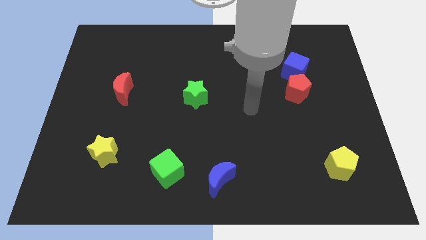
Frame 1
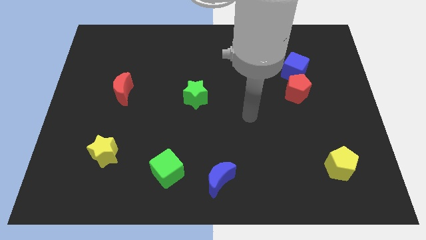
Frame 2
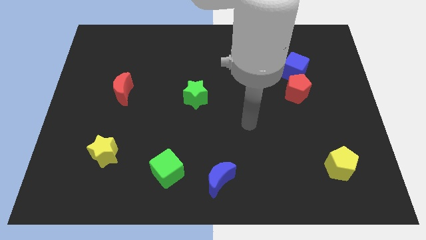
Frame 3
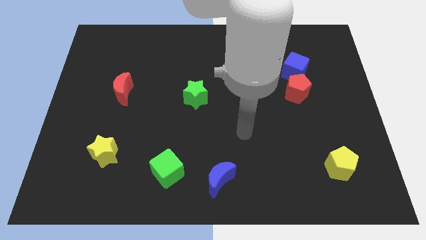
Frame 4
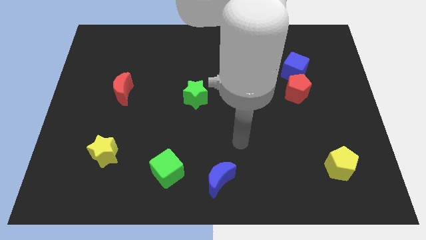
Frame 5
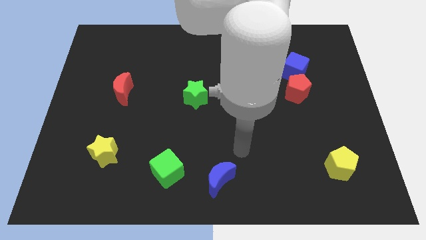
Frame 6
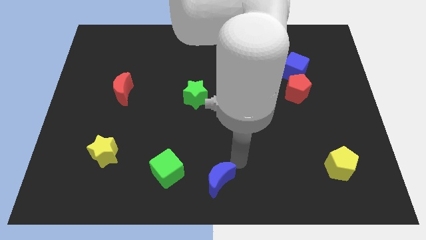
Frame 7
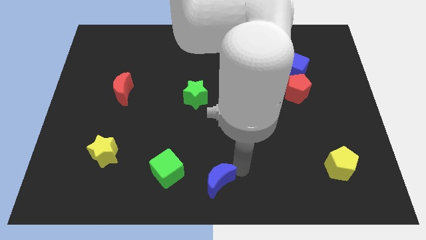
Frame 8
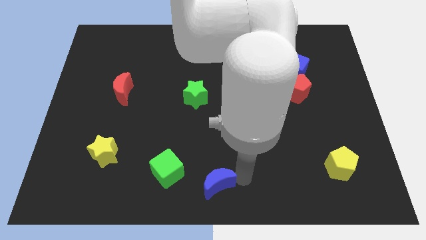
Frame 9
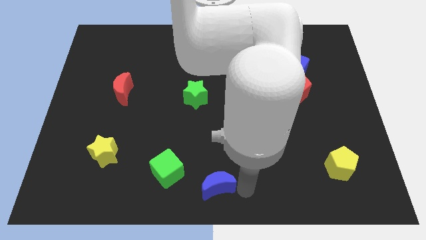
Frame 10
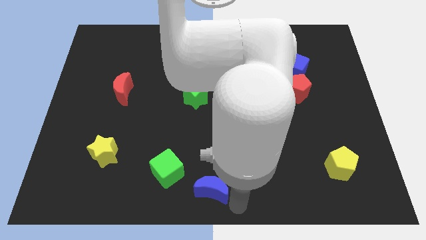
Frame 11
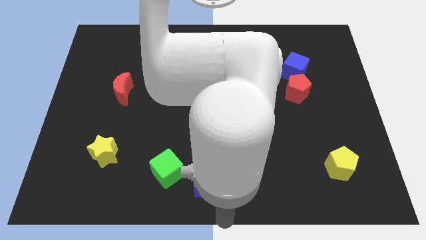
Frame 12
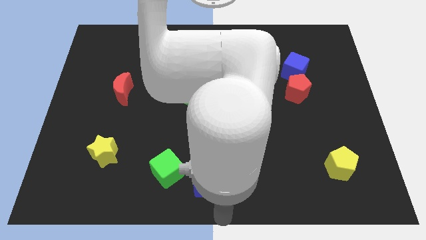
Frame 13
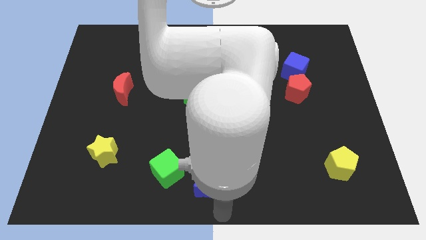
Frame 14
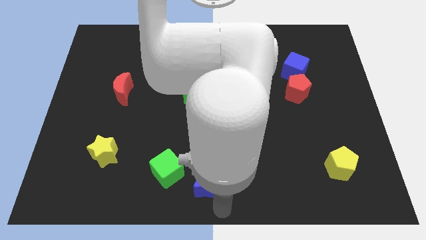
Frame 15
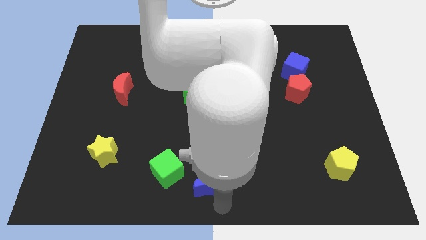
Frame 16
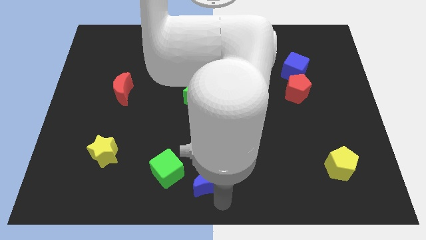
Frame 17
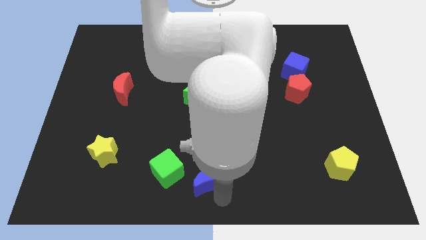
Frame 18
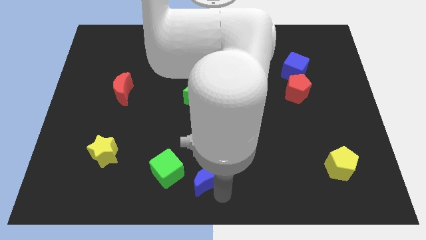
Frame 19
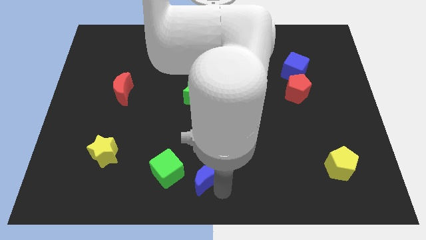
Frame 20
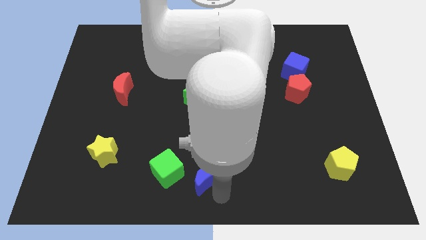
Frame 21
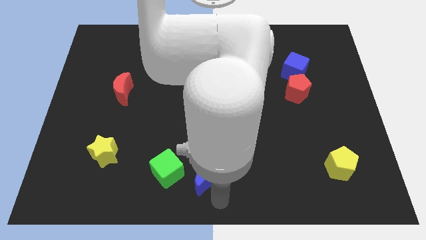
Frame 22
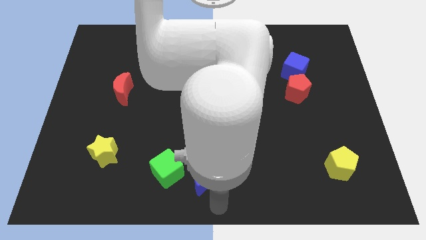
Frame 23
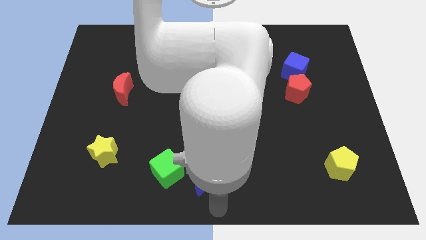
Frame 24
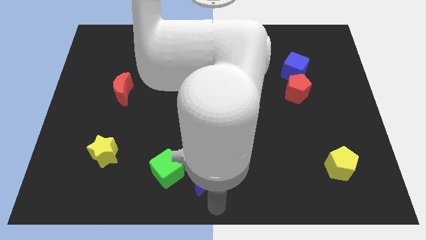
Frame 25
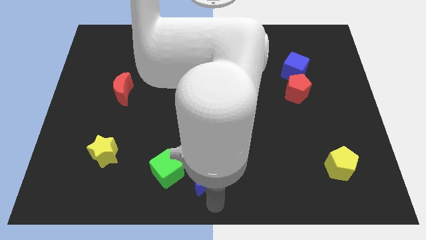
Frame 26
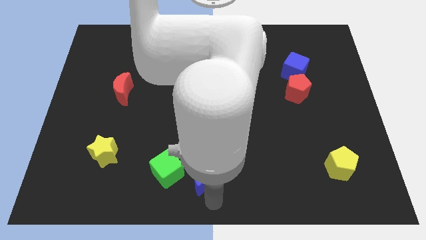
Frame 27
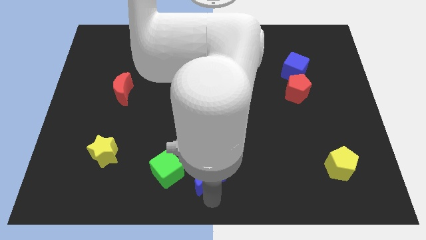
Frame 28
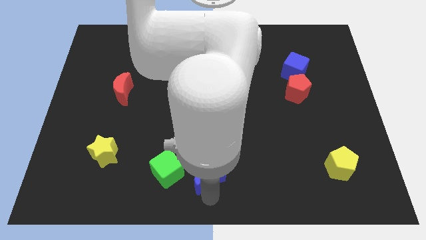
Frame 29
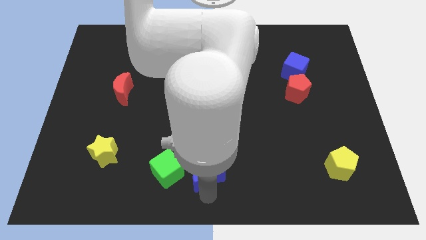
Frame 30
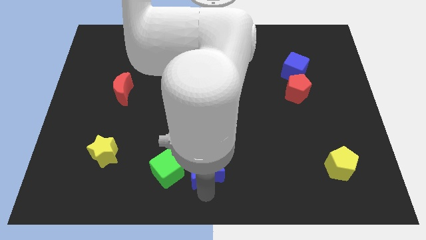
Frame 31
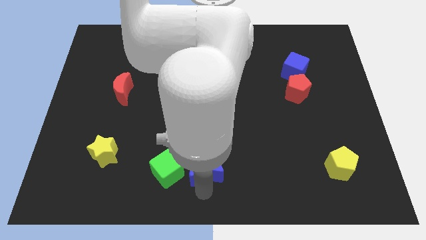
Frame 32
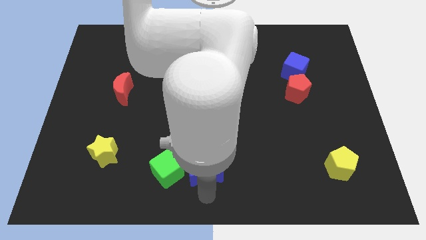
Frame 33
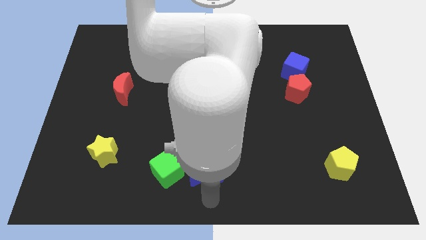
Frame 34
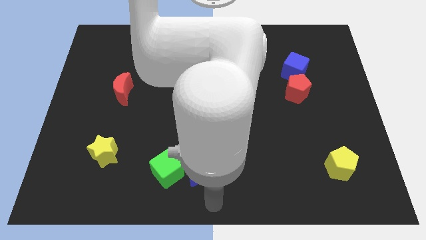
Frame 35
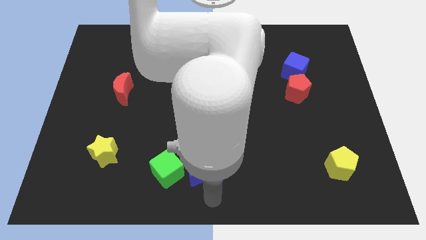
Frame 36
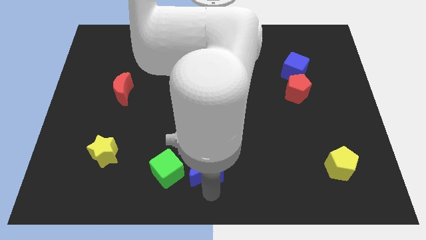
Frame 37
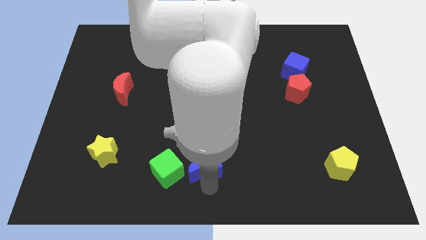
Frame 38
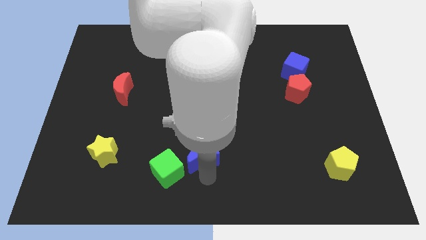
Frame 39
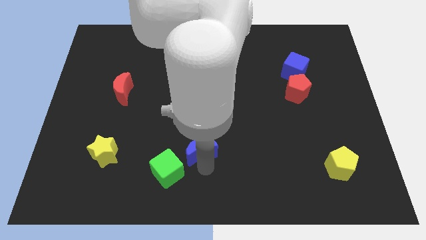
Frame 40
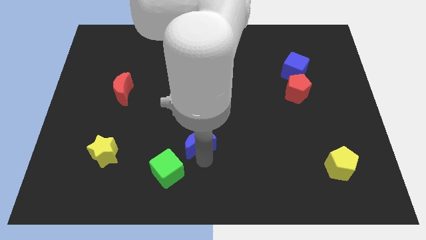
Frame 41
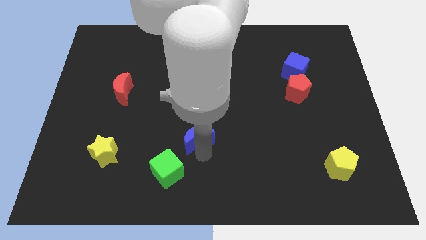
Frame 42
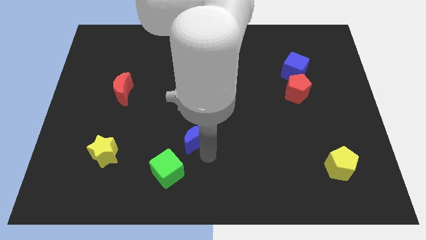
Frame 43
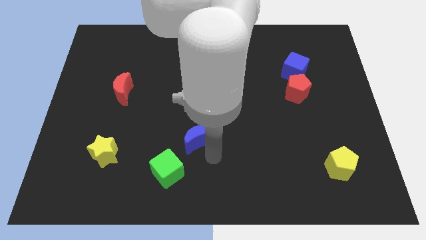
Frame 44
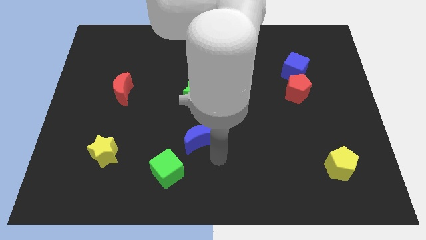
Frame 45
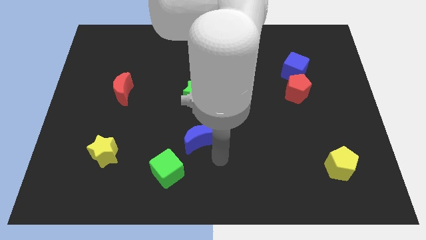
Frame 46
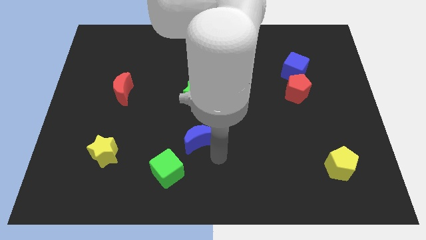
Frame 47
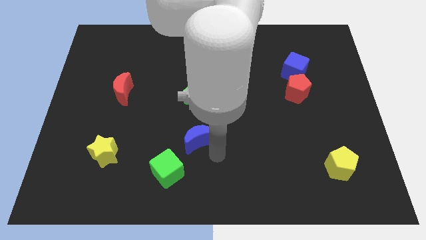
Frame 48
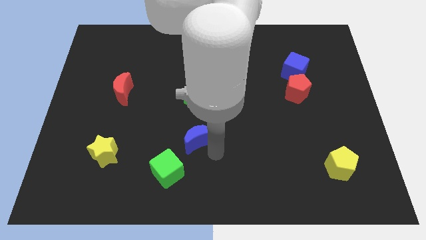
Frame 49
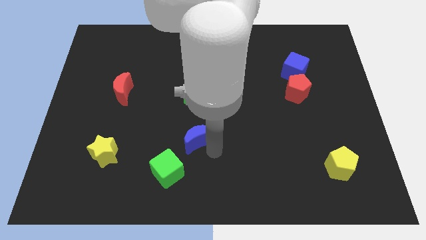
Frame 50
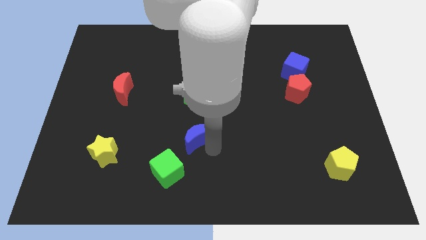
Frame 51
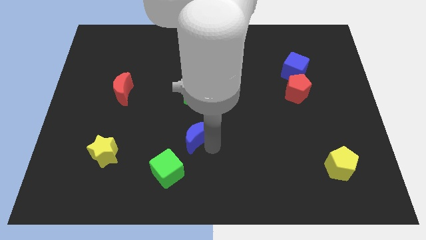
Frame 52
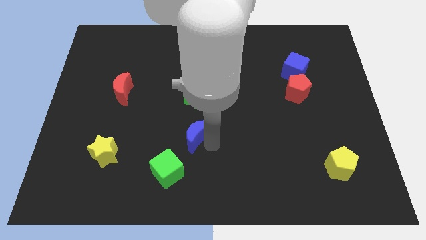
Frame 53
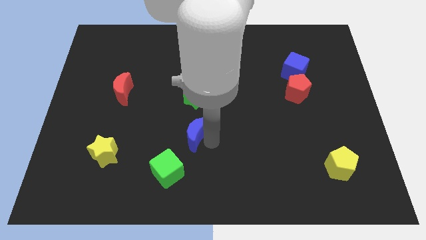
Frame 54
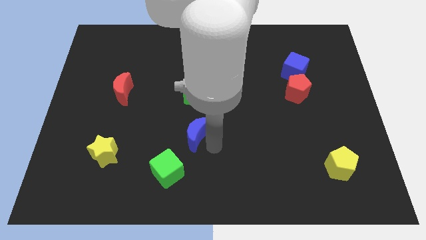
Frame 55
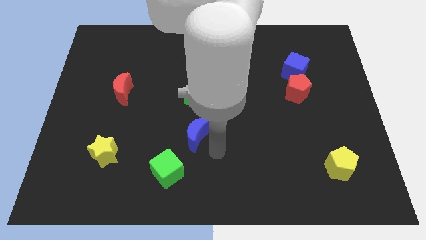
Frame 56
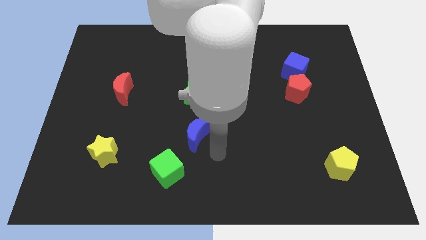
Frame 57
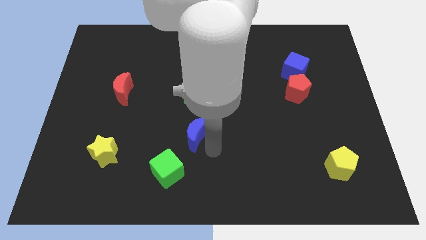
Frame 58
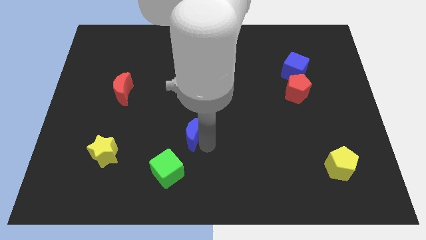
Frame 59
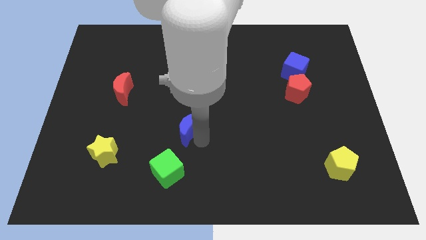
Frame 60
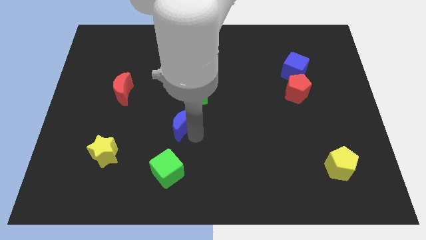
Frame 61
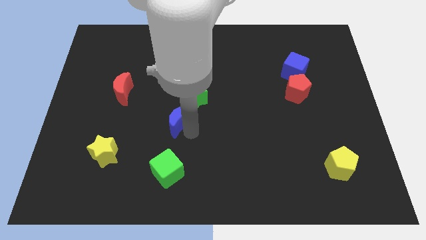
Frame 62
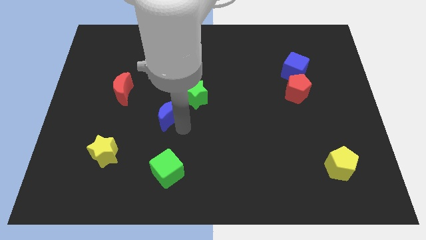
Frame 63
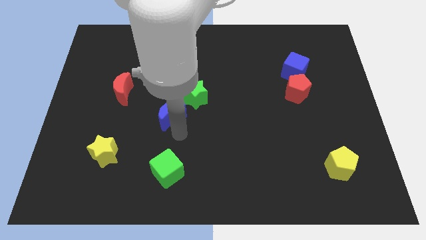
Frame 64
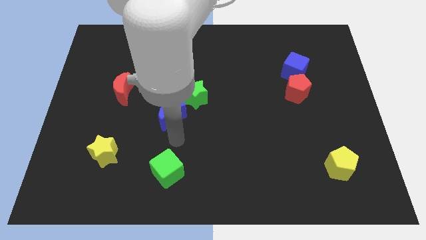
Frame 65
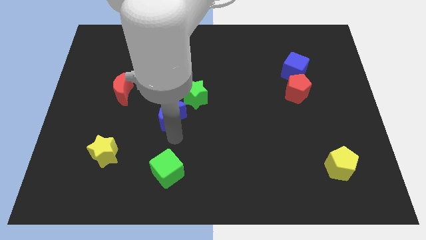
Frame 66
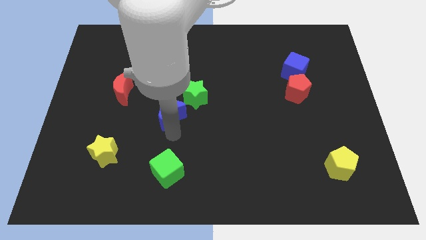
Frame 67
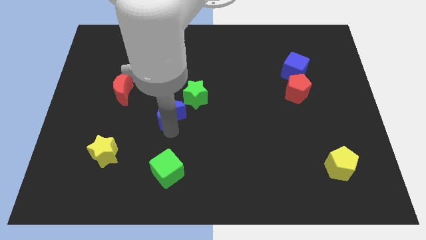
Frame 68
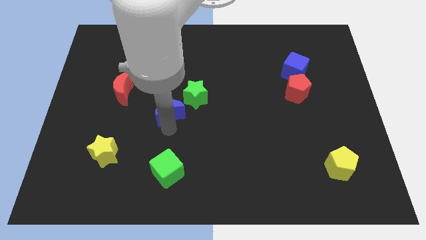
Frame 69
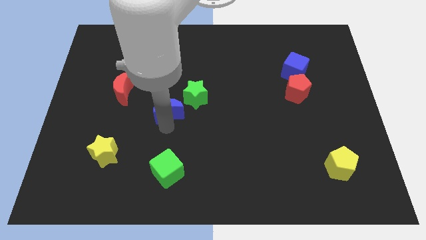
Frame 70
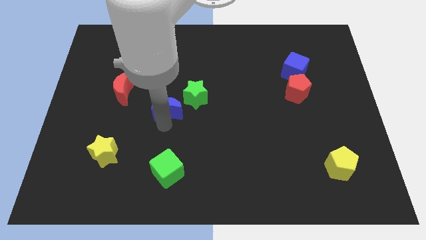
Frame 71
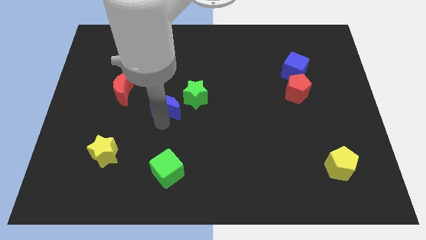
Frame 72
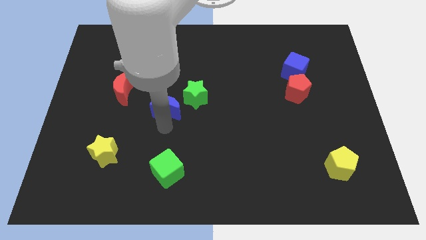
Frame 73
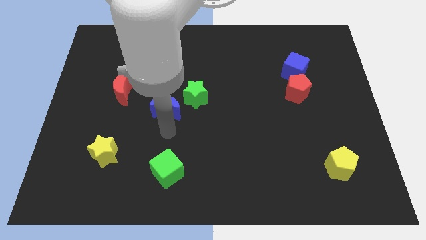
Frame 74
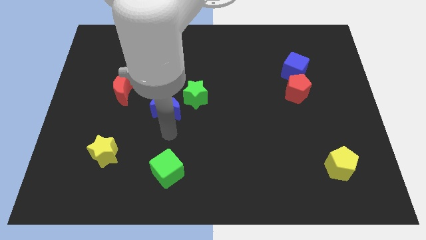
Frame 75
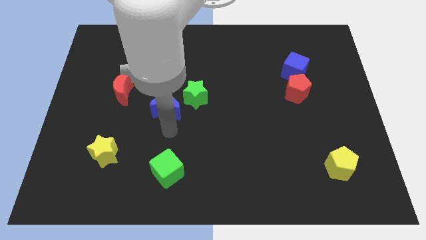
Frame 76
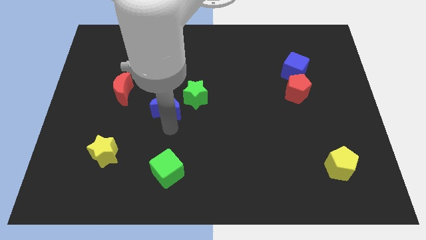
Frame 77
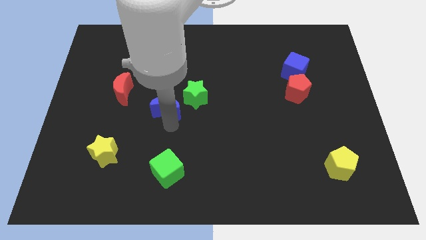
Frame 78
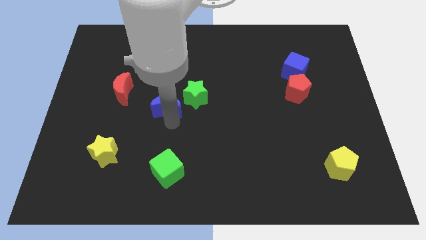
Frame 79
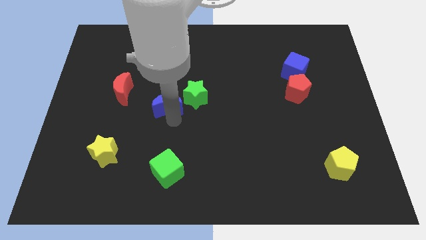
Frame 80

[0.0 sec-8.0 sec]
slide the blue moon just right of the red moon
